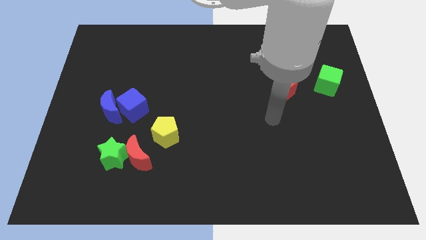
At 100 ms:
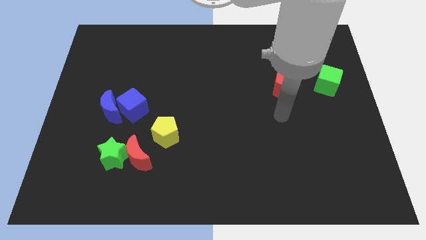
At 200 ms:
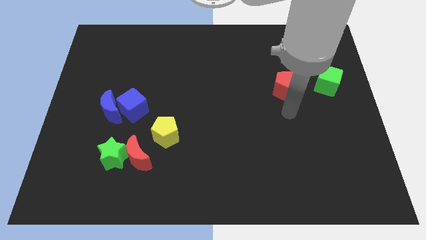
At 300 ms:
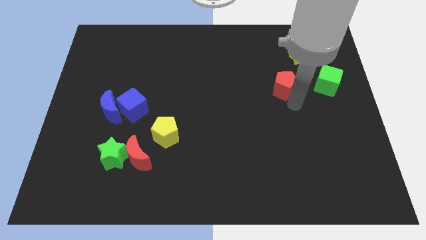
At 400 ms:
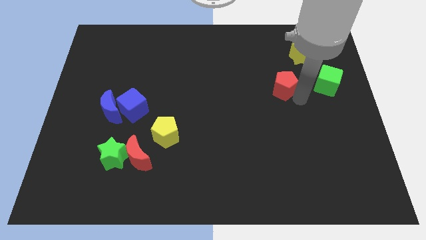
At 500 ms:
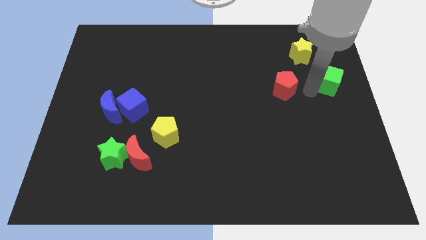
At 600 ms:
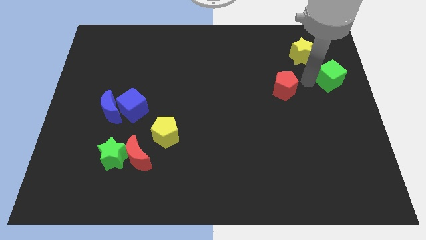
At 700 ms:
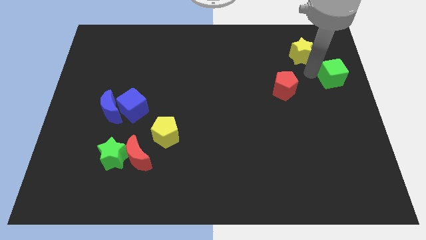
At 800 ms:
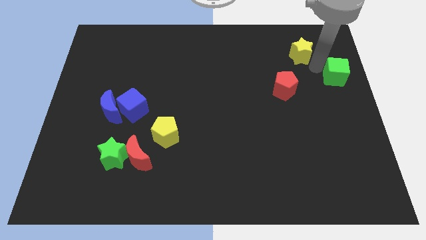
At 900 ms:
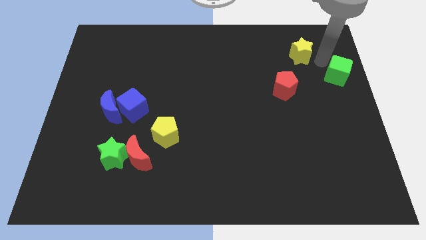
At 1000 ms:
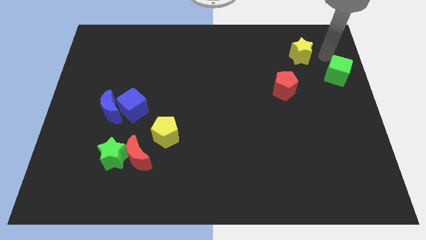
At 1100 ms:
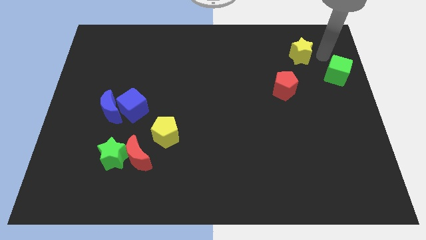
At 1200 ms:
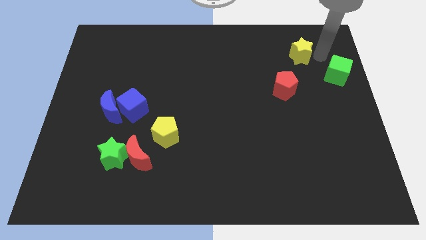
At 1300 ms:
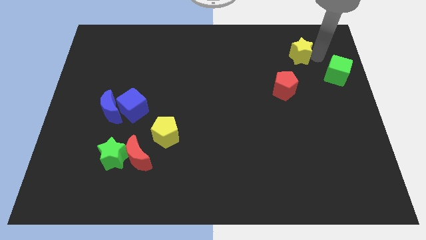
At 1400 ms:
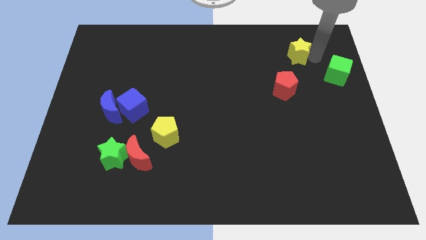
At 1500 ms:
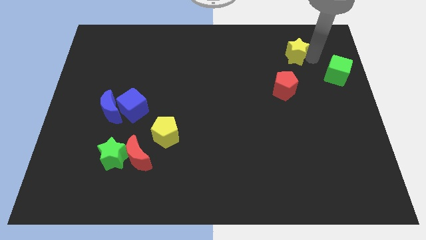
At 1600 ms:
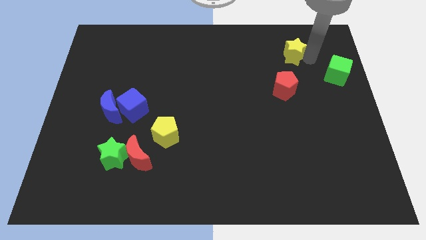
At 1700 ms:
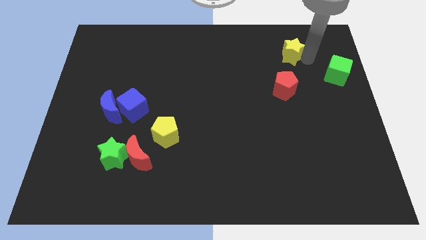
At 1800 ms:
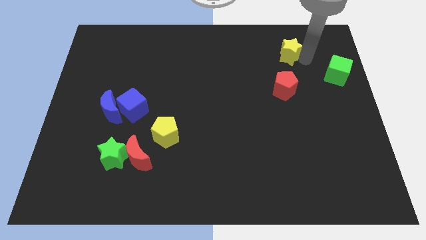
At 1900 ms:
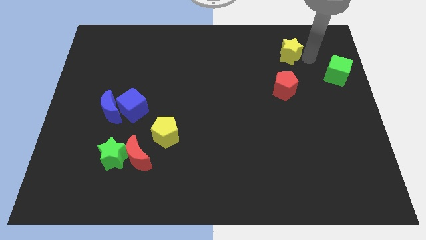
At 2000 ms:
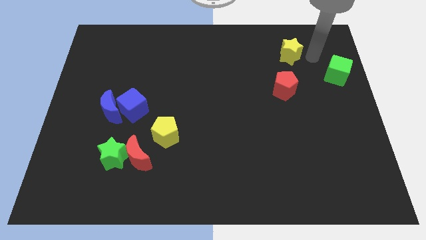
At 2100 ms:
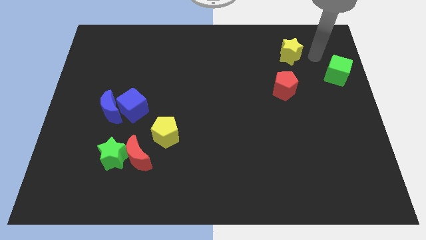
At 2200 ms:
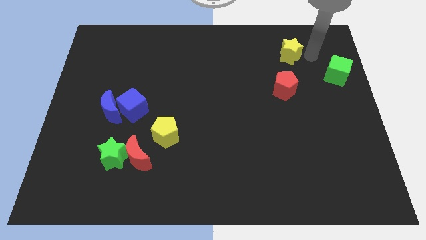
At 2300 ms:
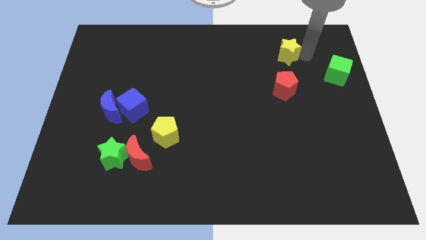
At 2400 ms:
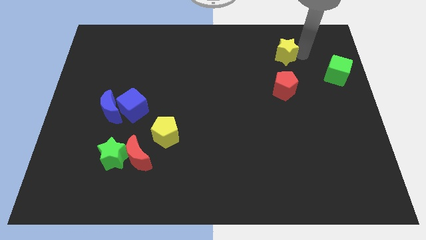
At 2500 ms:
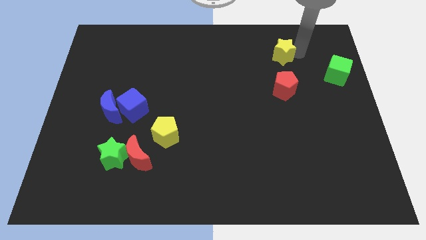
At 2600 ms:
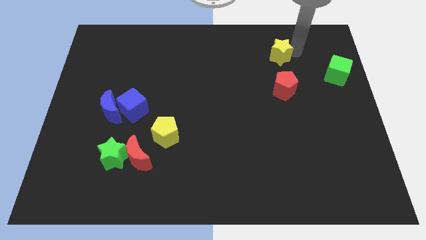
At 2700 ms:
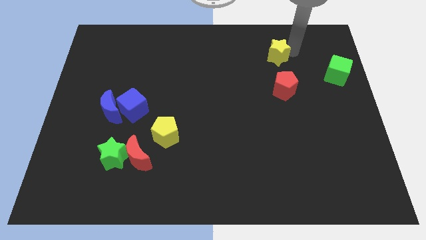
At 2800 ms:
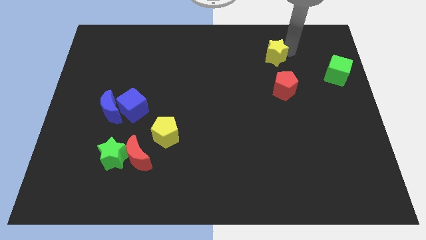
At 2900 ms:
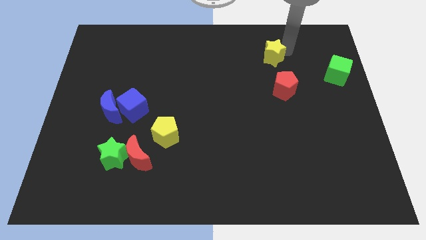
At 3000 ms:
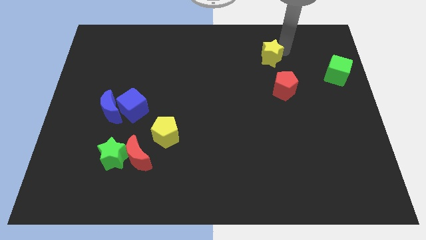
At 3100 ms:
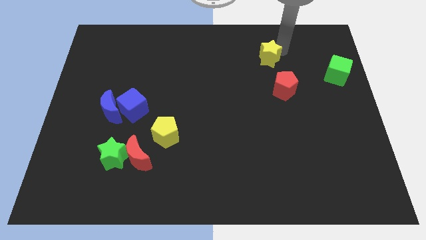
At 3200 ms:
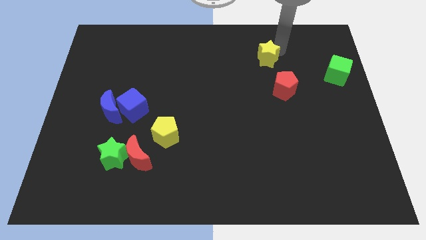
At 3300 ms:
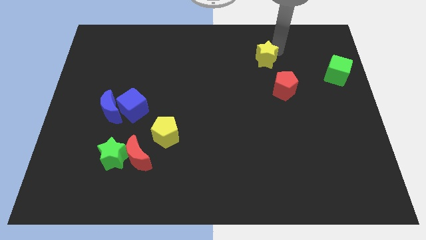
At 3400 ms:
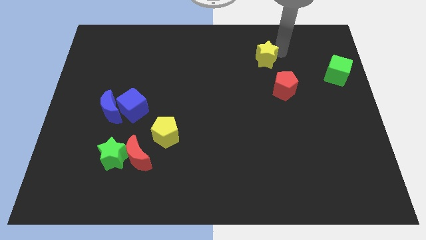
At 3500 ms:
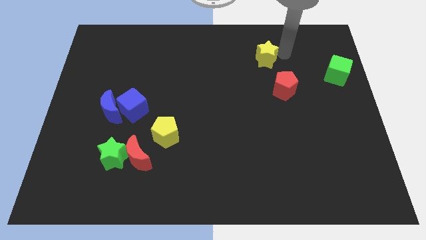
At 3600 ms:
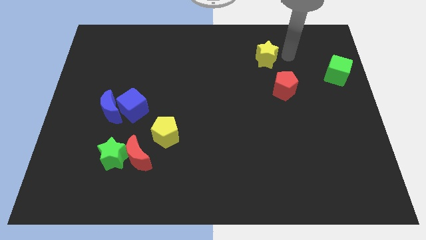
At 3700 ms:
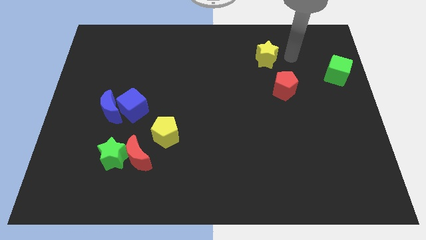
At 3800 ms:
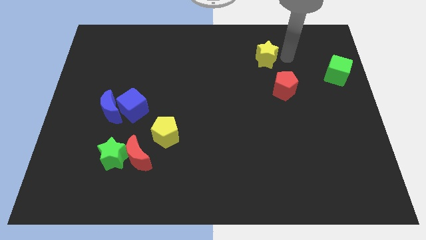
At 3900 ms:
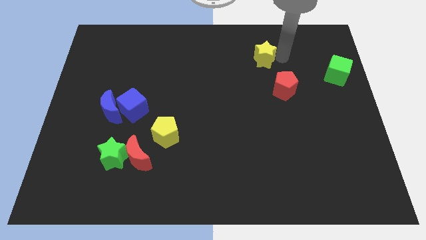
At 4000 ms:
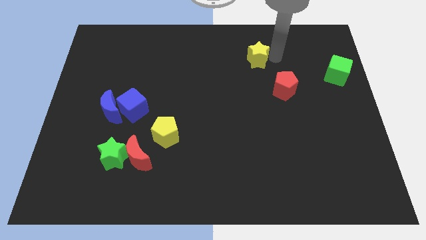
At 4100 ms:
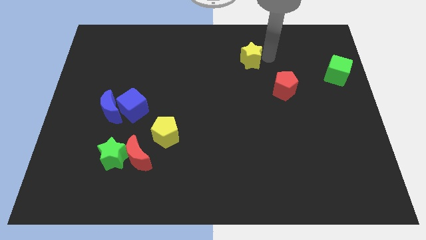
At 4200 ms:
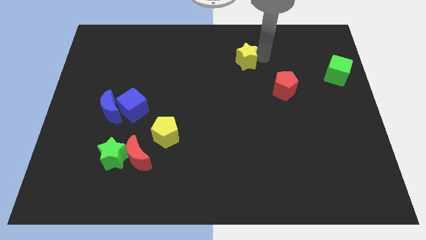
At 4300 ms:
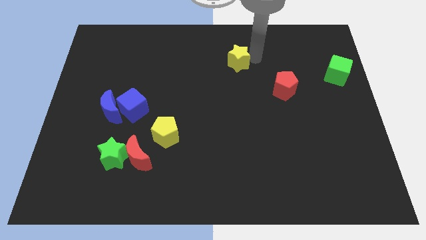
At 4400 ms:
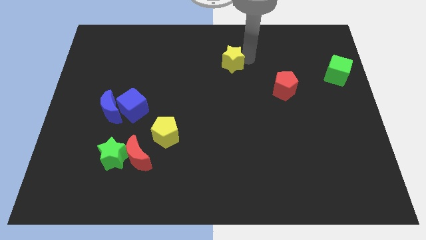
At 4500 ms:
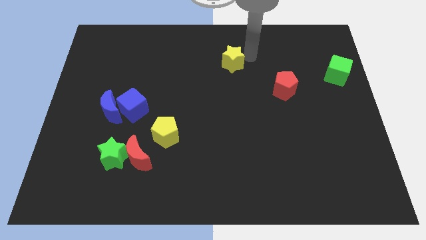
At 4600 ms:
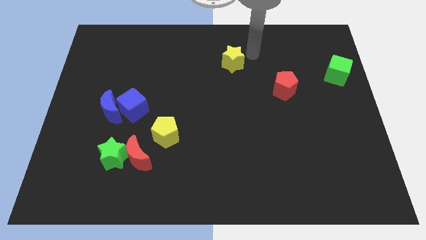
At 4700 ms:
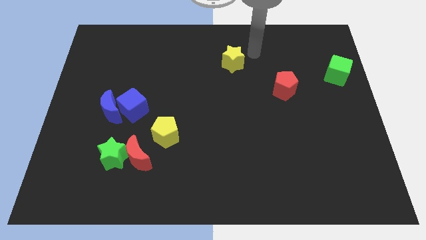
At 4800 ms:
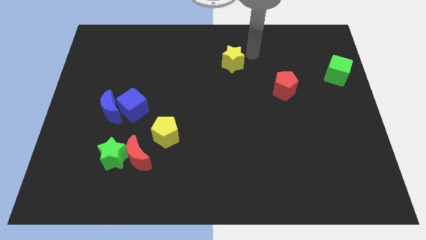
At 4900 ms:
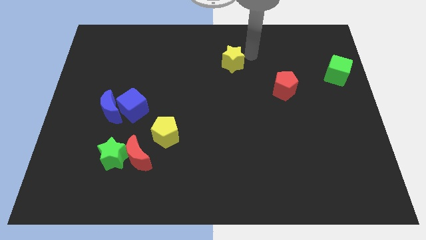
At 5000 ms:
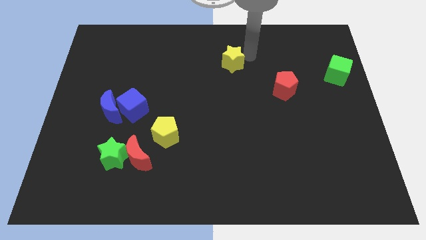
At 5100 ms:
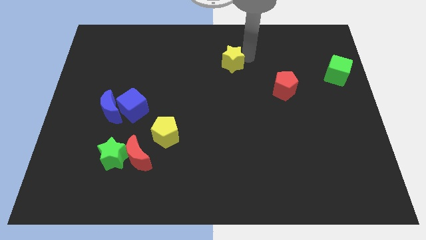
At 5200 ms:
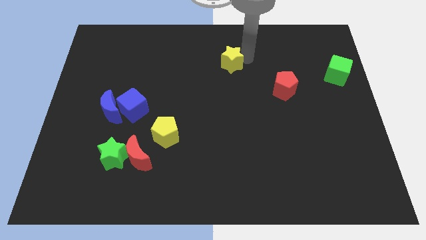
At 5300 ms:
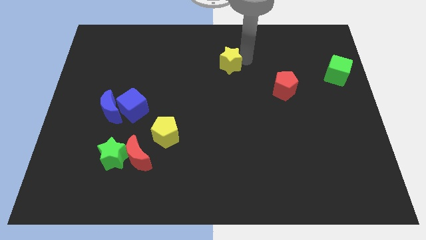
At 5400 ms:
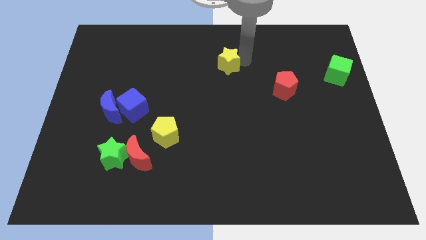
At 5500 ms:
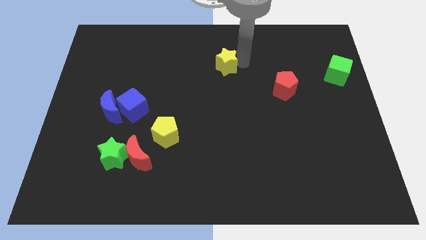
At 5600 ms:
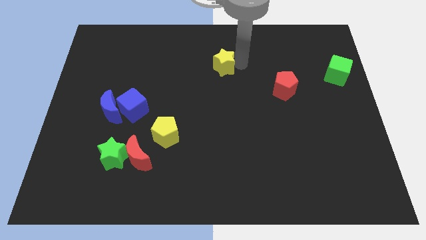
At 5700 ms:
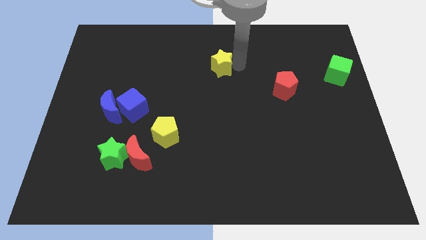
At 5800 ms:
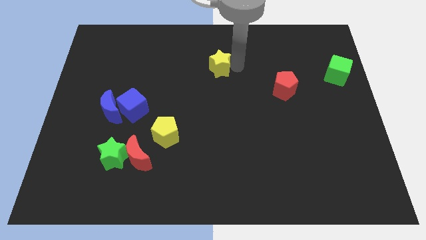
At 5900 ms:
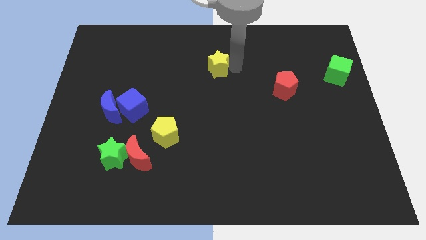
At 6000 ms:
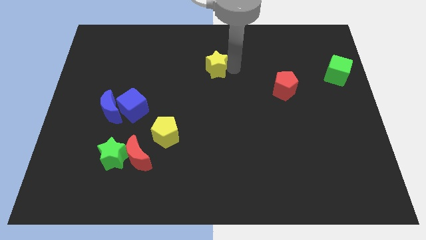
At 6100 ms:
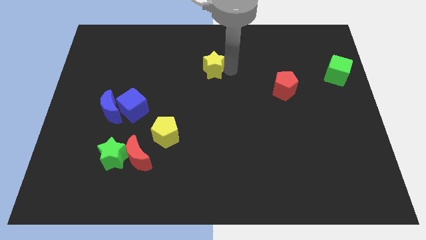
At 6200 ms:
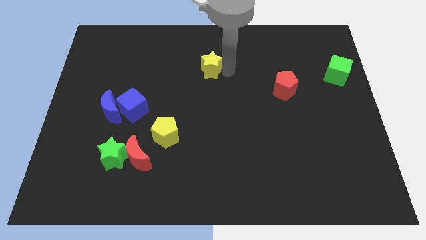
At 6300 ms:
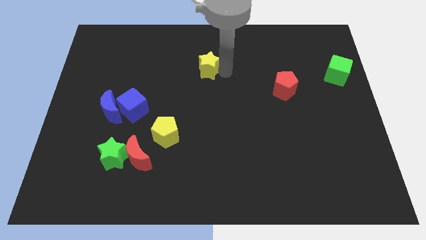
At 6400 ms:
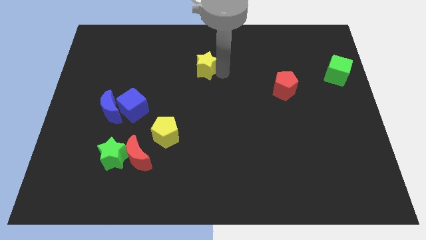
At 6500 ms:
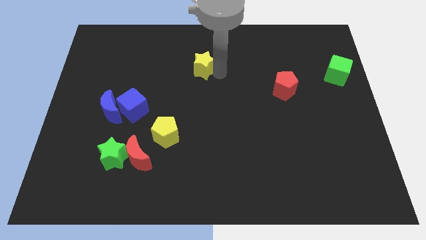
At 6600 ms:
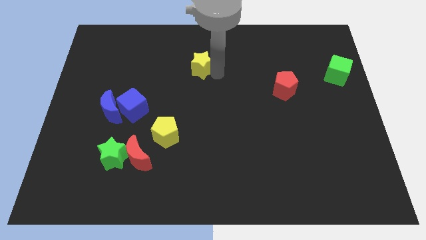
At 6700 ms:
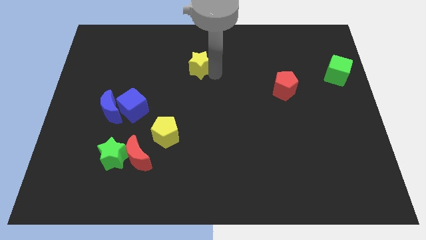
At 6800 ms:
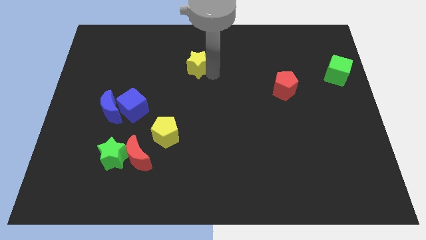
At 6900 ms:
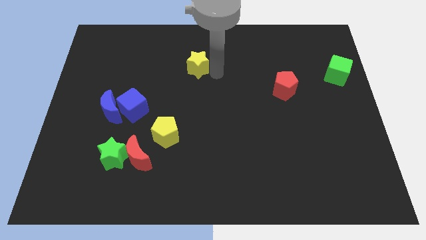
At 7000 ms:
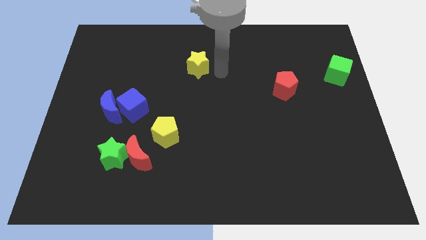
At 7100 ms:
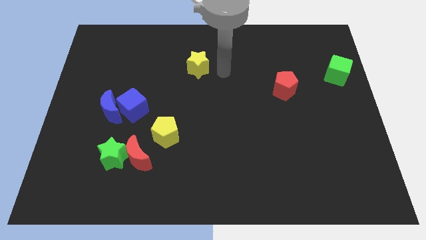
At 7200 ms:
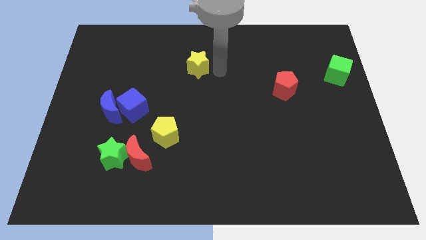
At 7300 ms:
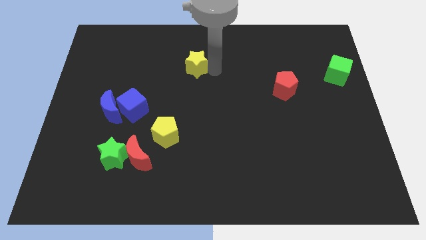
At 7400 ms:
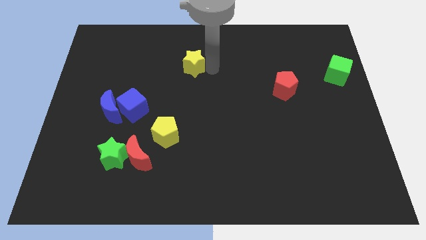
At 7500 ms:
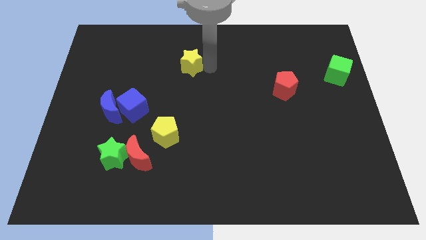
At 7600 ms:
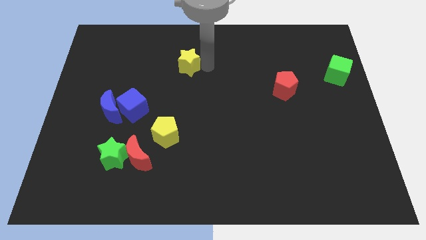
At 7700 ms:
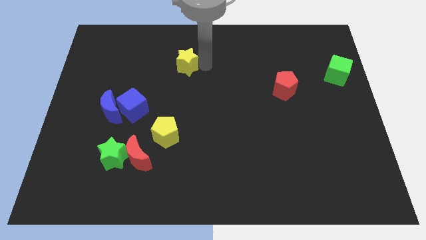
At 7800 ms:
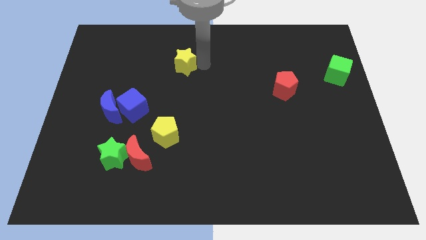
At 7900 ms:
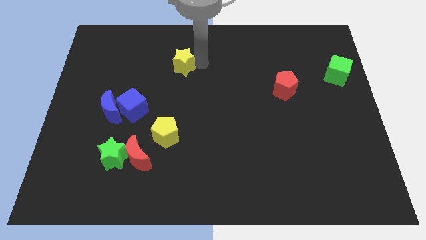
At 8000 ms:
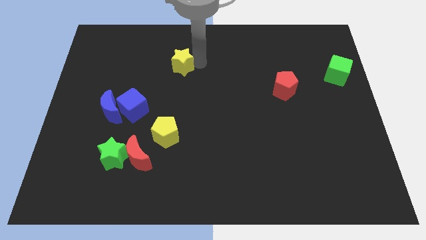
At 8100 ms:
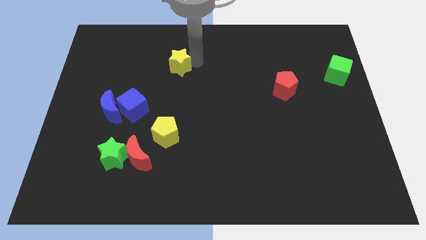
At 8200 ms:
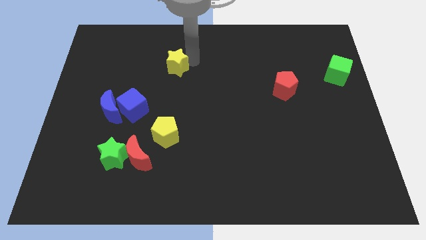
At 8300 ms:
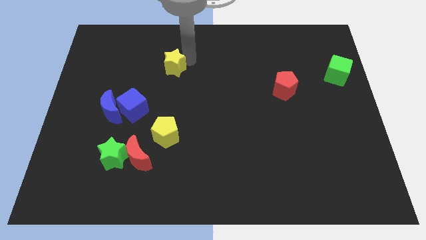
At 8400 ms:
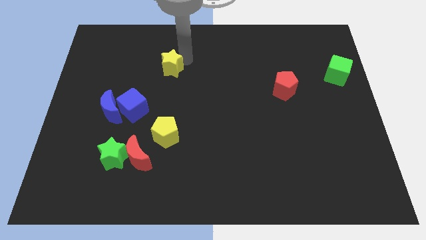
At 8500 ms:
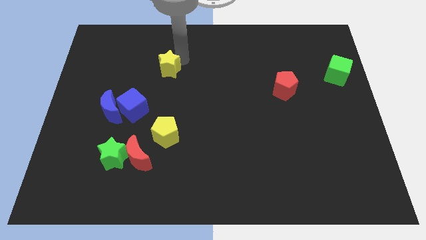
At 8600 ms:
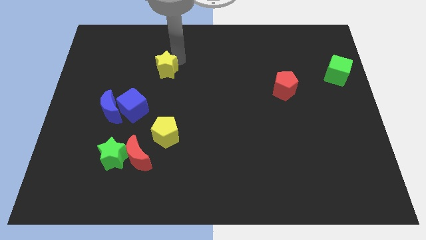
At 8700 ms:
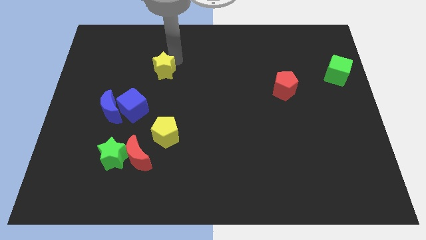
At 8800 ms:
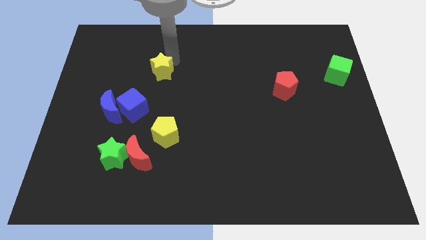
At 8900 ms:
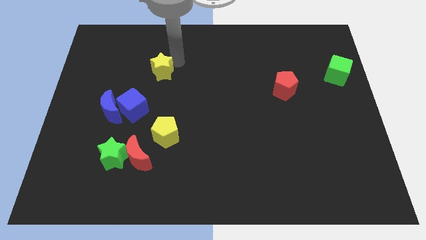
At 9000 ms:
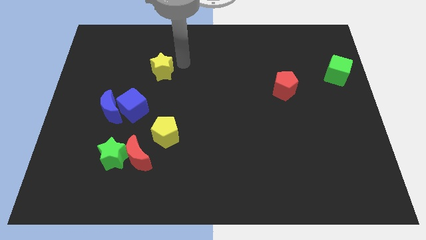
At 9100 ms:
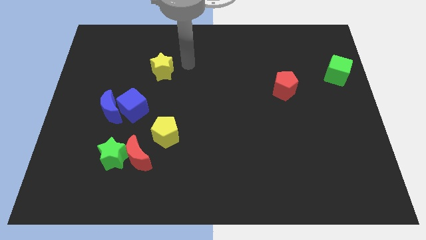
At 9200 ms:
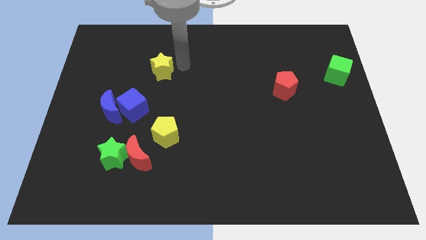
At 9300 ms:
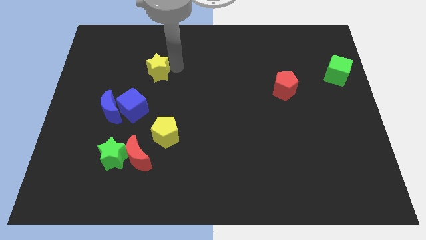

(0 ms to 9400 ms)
move the yellow star above the blue cube
